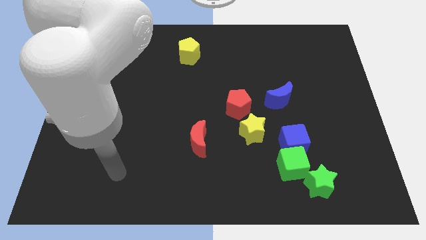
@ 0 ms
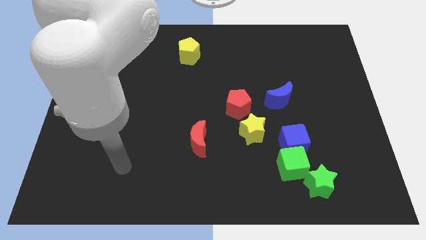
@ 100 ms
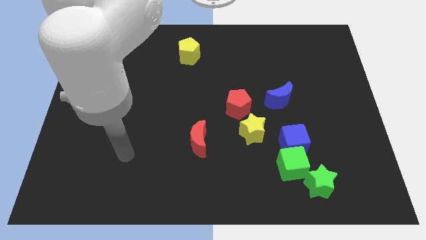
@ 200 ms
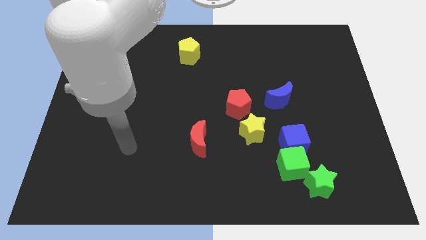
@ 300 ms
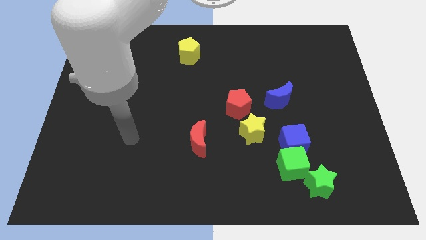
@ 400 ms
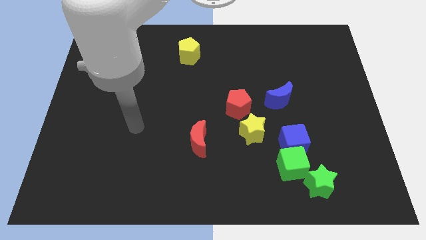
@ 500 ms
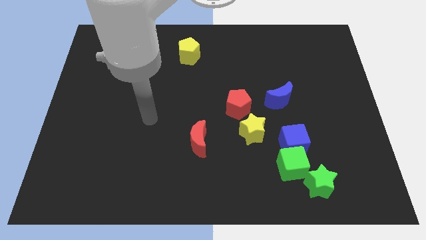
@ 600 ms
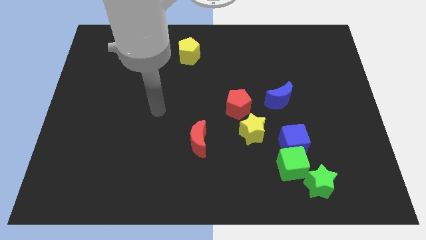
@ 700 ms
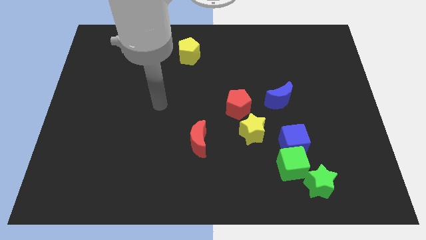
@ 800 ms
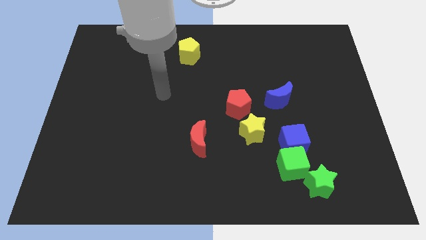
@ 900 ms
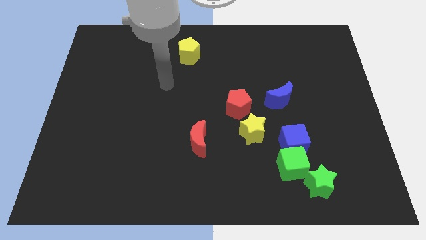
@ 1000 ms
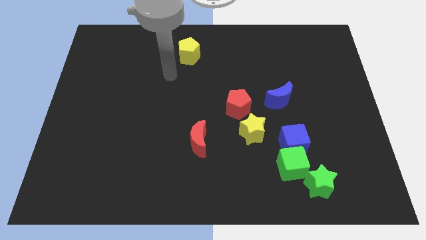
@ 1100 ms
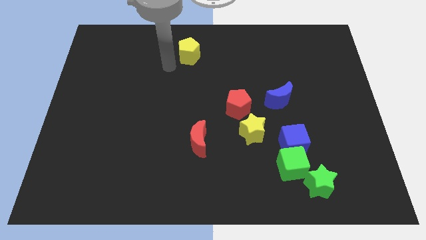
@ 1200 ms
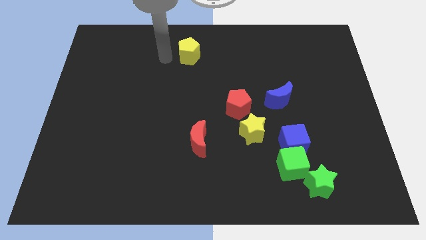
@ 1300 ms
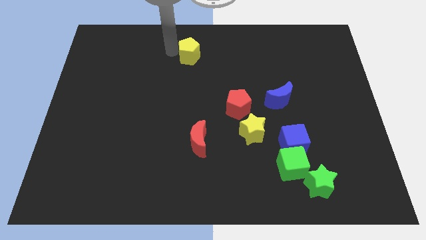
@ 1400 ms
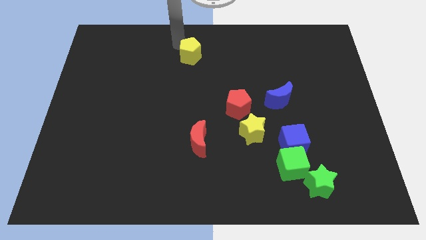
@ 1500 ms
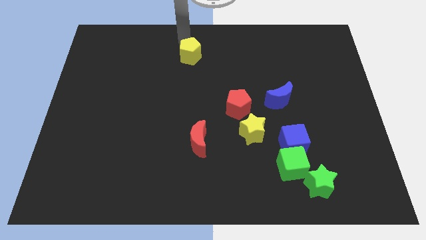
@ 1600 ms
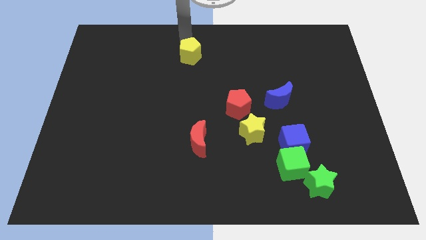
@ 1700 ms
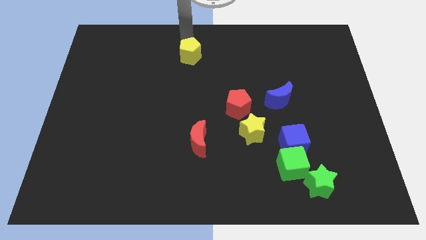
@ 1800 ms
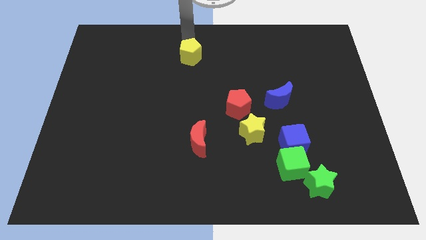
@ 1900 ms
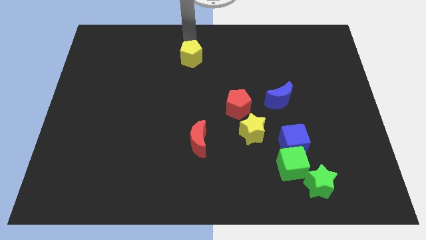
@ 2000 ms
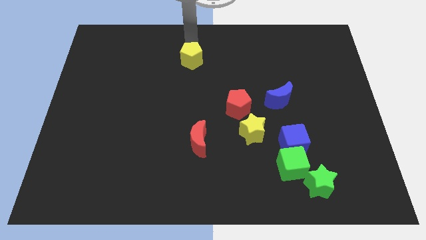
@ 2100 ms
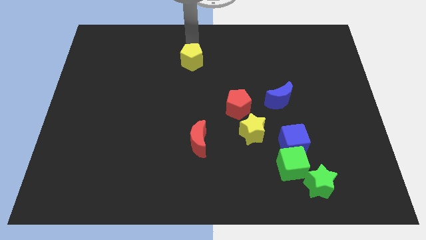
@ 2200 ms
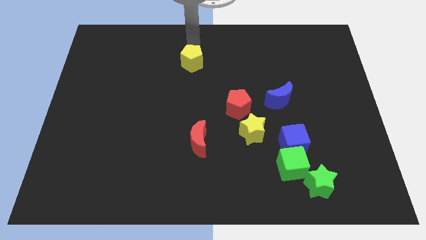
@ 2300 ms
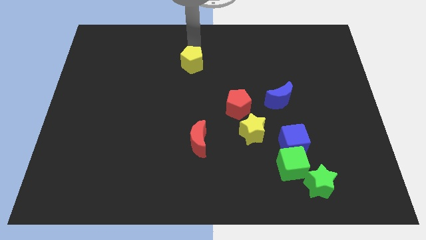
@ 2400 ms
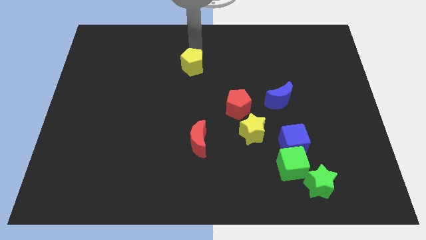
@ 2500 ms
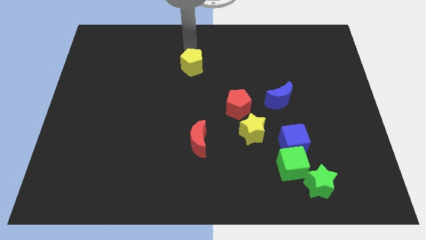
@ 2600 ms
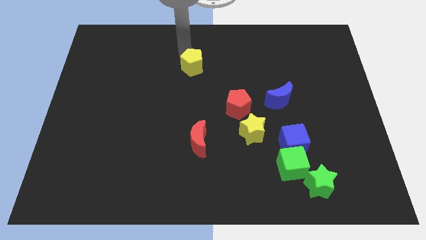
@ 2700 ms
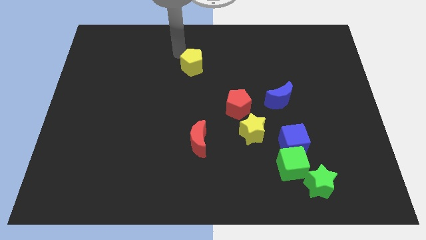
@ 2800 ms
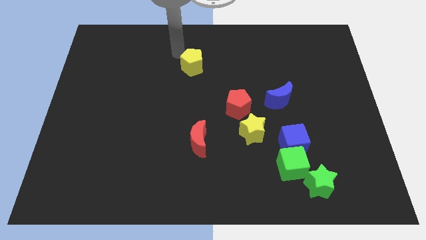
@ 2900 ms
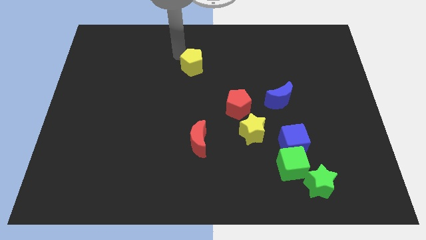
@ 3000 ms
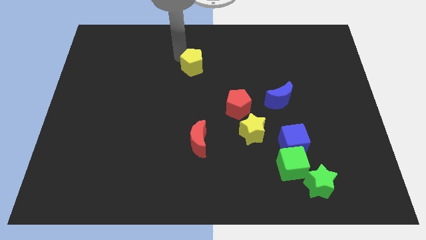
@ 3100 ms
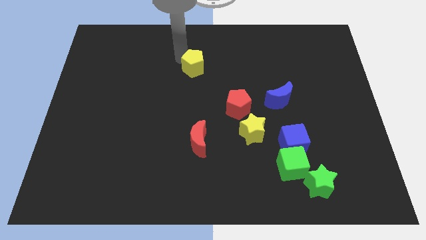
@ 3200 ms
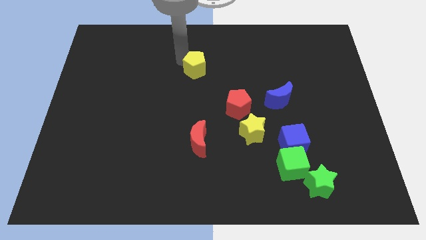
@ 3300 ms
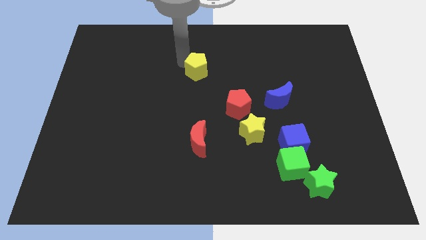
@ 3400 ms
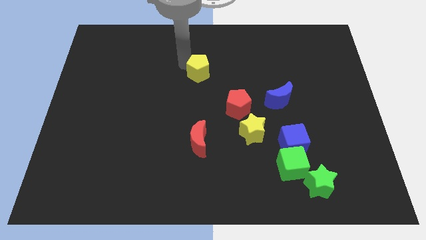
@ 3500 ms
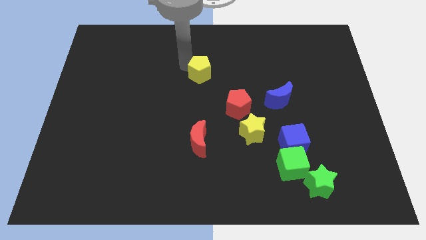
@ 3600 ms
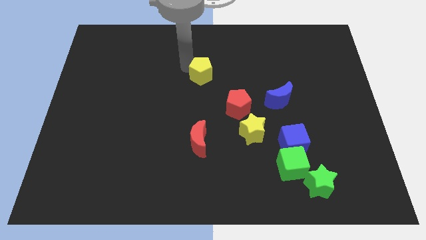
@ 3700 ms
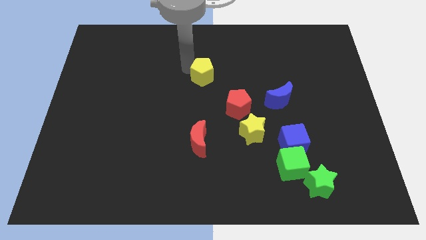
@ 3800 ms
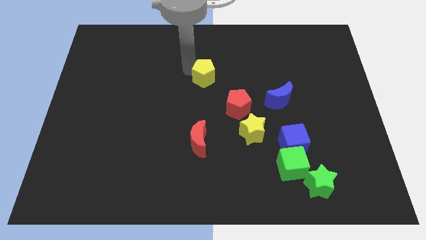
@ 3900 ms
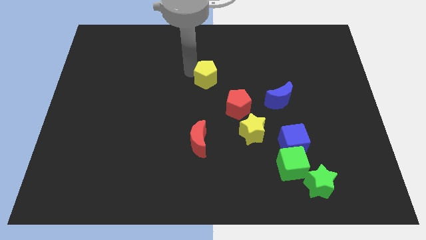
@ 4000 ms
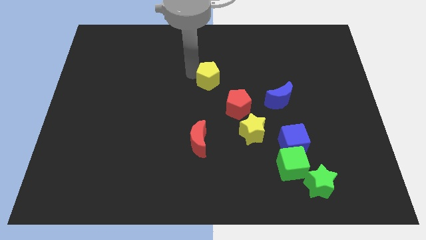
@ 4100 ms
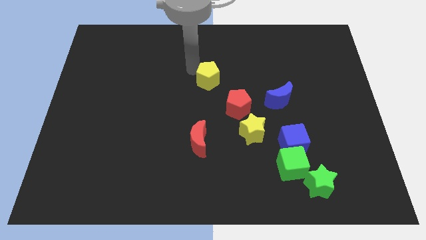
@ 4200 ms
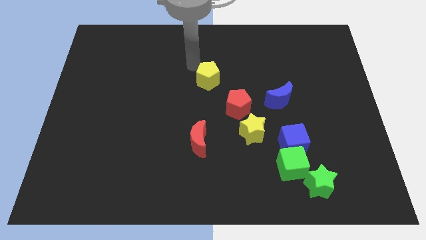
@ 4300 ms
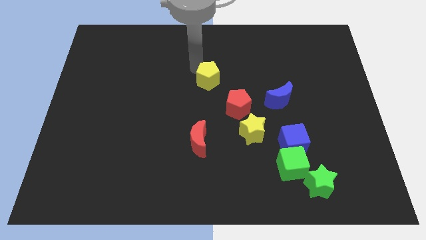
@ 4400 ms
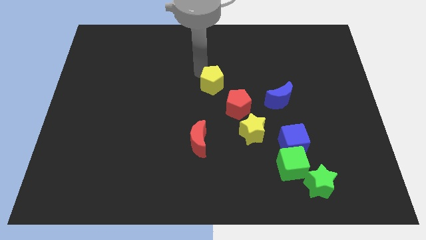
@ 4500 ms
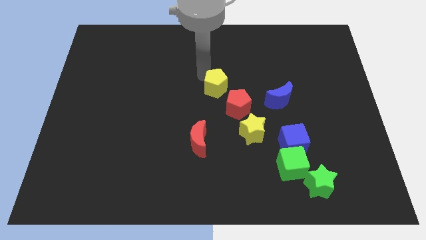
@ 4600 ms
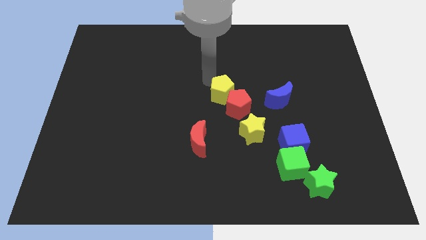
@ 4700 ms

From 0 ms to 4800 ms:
push the yellow pentagon to the red pentagon

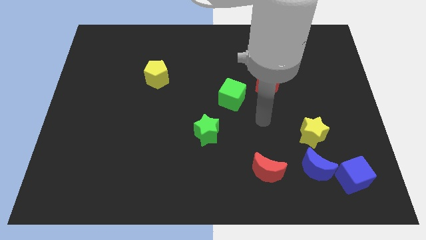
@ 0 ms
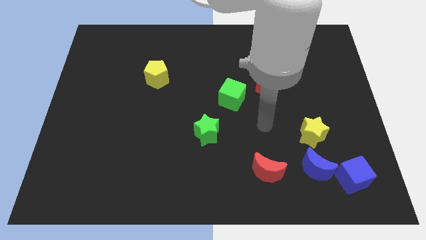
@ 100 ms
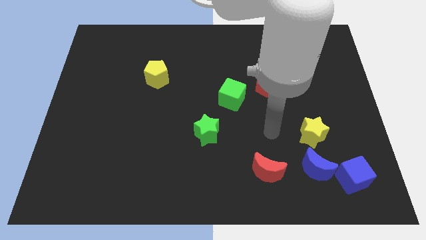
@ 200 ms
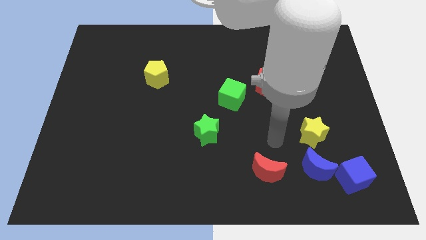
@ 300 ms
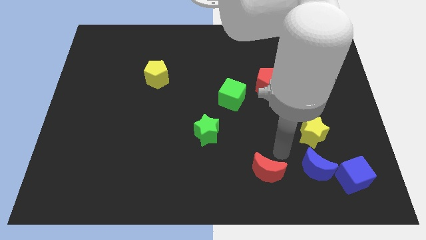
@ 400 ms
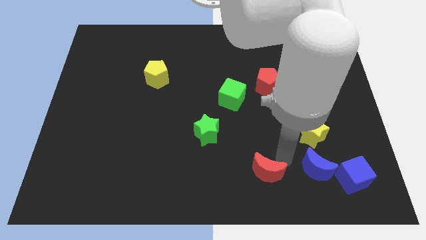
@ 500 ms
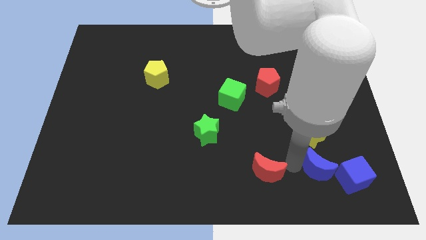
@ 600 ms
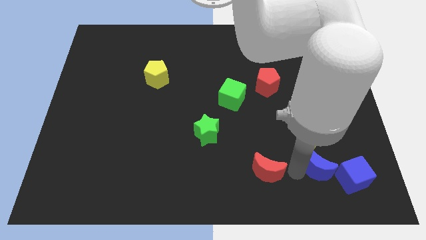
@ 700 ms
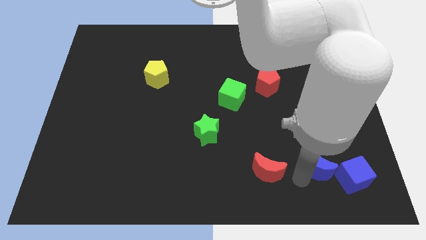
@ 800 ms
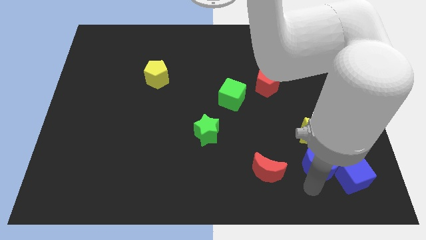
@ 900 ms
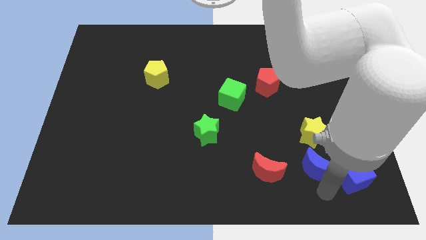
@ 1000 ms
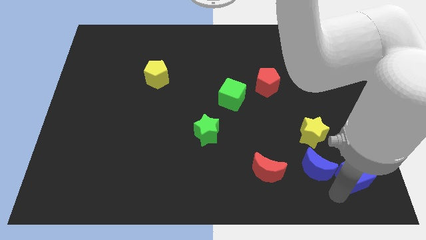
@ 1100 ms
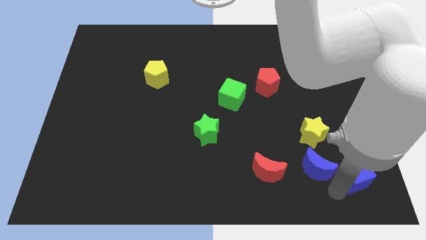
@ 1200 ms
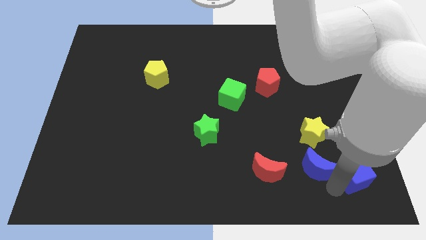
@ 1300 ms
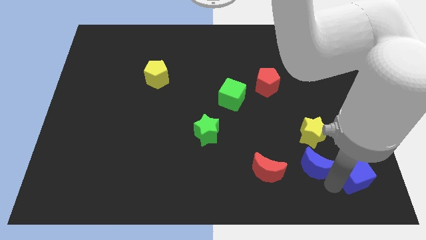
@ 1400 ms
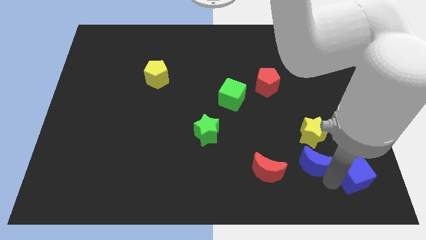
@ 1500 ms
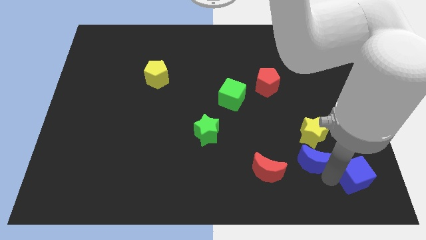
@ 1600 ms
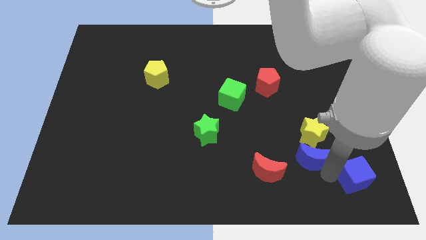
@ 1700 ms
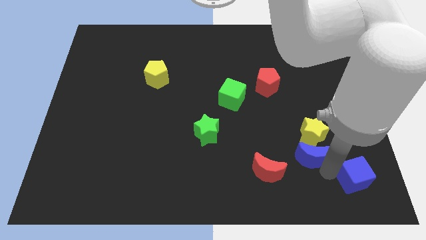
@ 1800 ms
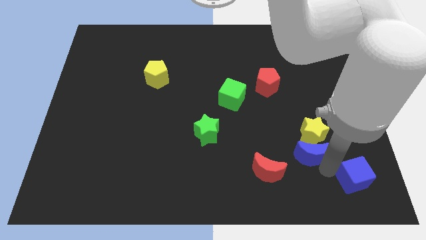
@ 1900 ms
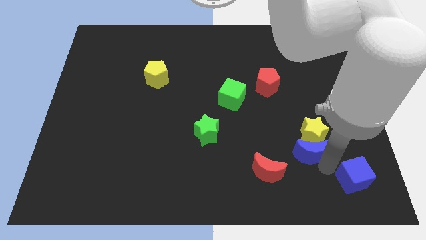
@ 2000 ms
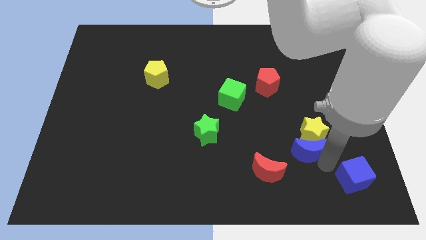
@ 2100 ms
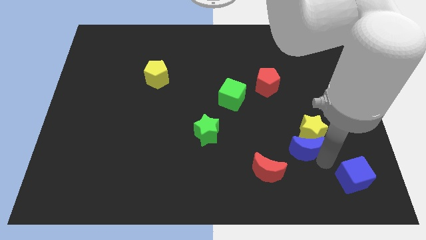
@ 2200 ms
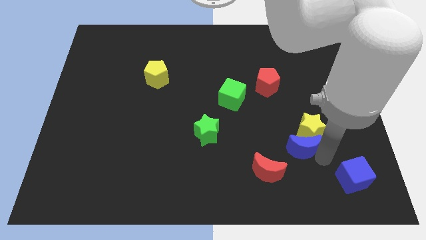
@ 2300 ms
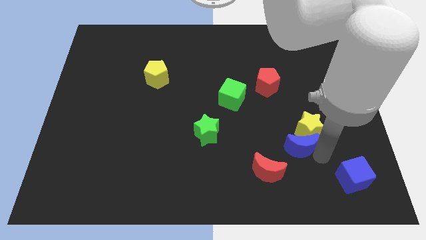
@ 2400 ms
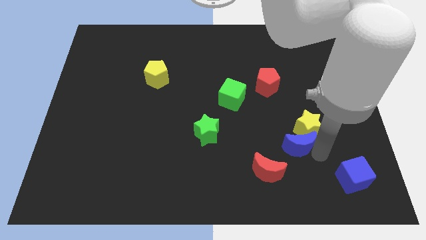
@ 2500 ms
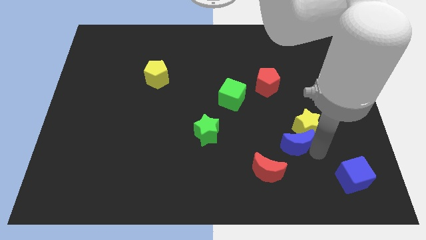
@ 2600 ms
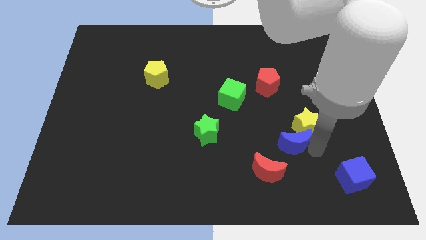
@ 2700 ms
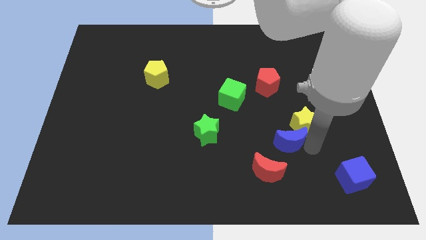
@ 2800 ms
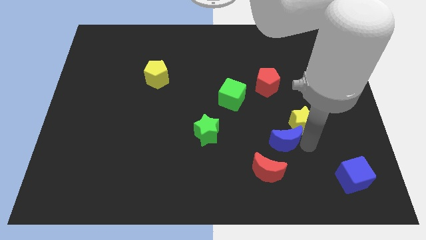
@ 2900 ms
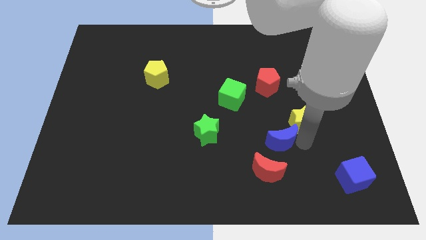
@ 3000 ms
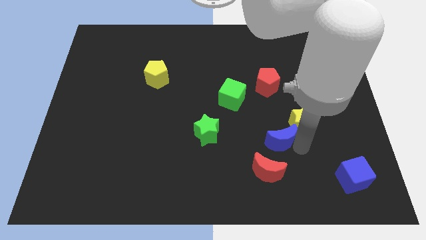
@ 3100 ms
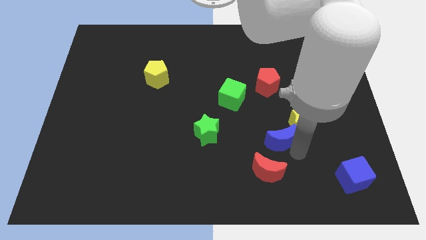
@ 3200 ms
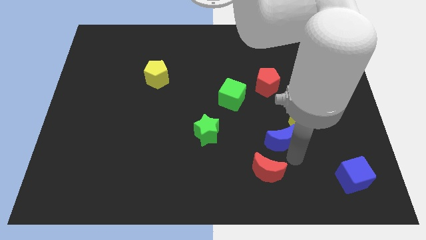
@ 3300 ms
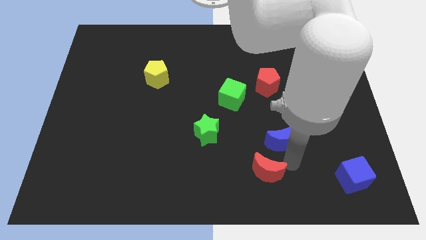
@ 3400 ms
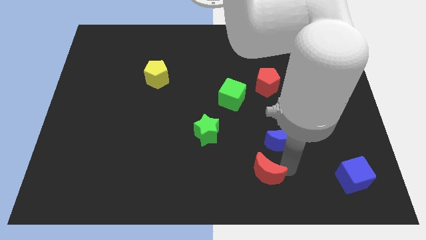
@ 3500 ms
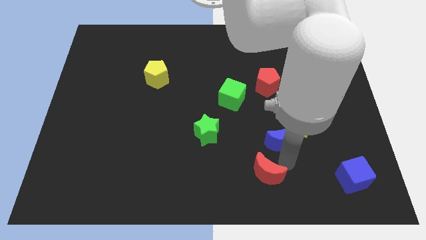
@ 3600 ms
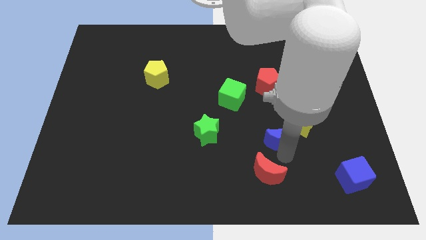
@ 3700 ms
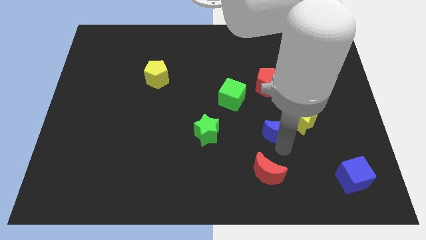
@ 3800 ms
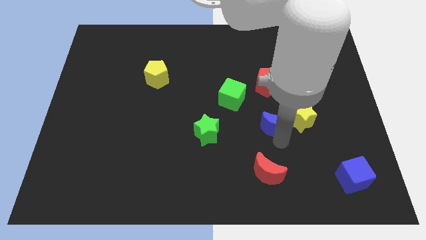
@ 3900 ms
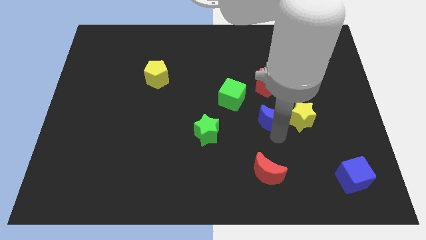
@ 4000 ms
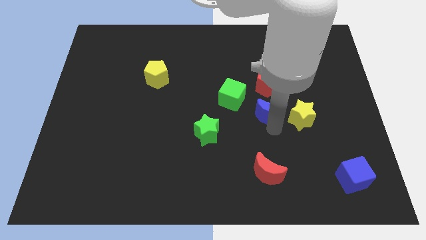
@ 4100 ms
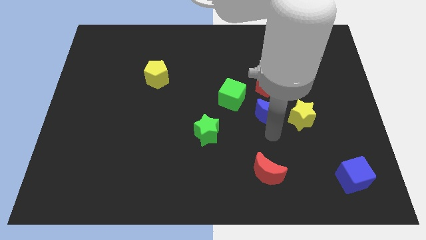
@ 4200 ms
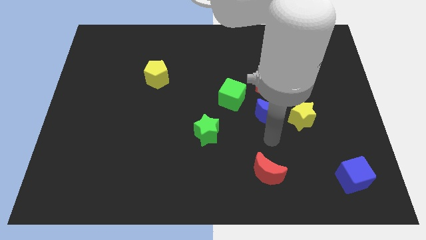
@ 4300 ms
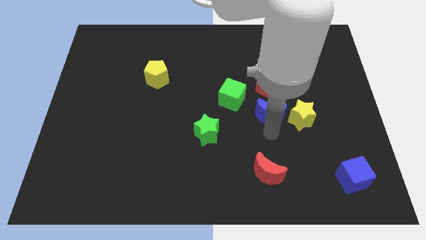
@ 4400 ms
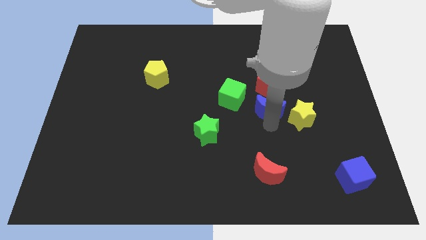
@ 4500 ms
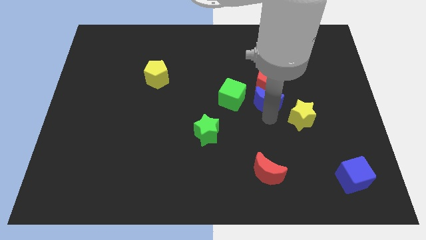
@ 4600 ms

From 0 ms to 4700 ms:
push the blue moon close to the red pentagon
